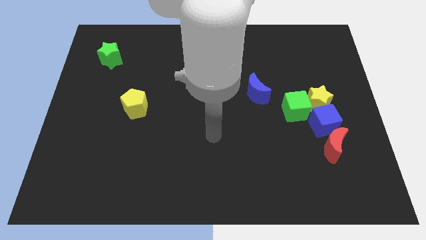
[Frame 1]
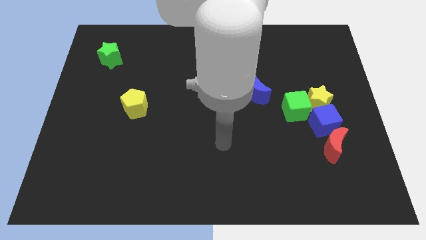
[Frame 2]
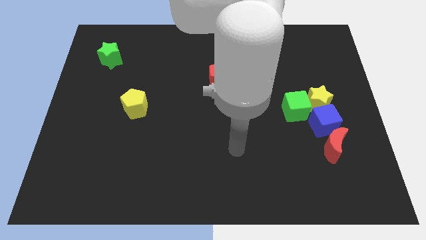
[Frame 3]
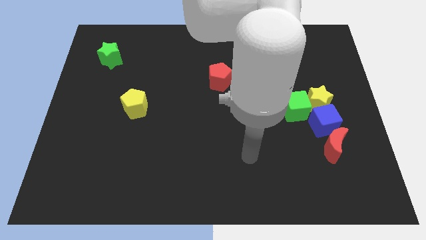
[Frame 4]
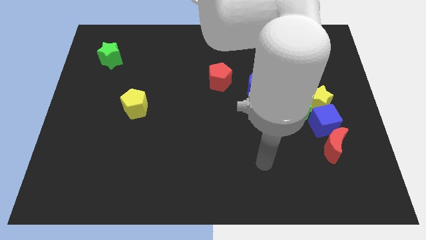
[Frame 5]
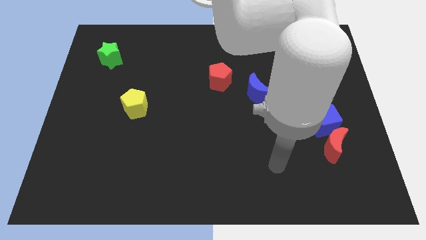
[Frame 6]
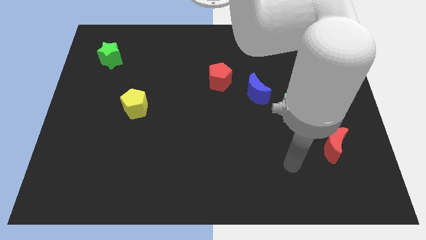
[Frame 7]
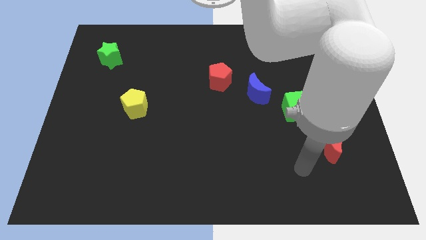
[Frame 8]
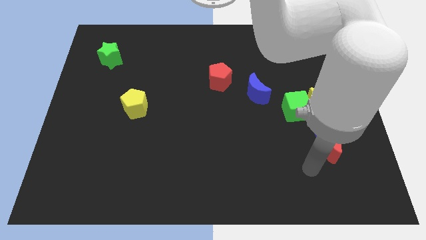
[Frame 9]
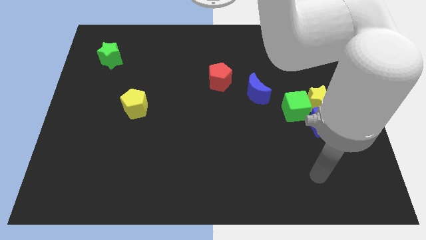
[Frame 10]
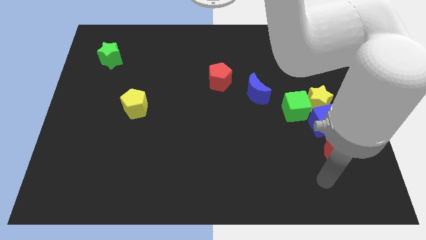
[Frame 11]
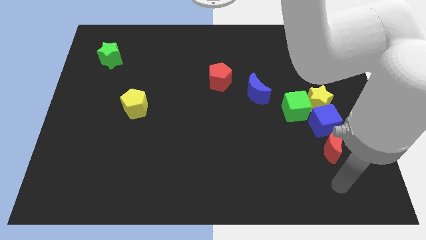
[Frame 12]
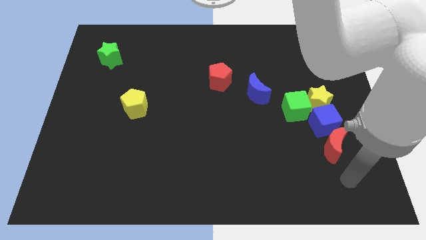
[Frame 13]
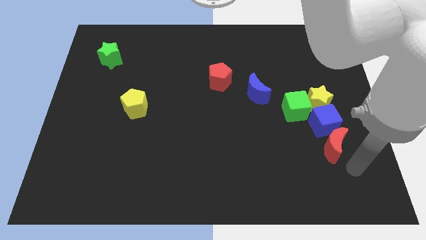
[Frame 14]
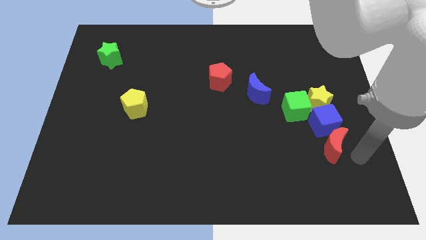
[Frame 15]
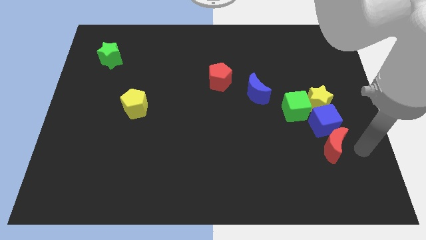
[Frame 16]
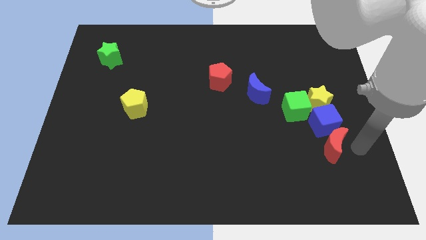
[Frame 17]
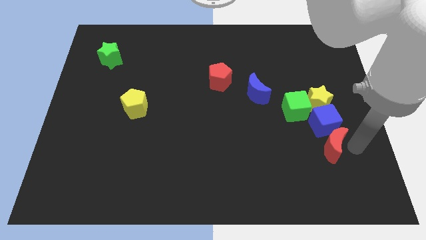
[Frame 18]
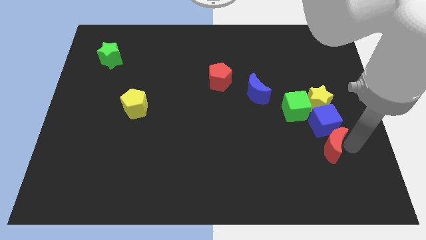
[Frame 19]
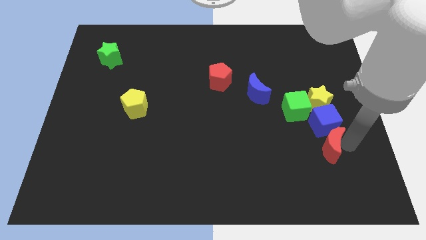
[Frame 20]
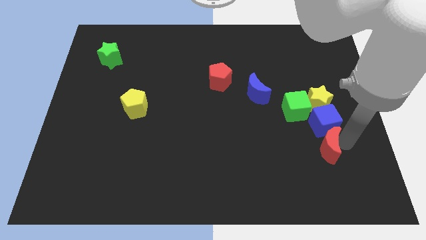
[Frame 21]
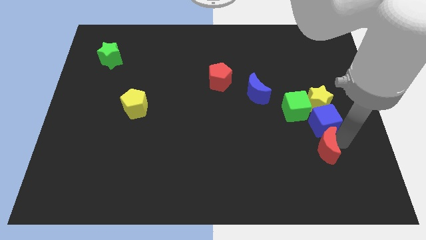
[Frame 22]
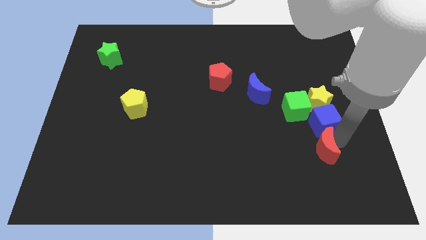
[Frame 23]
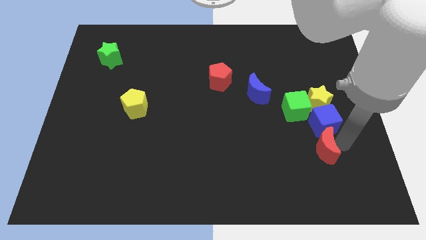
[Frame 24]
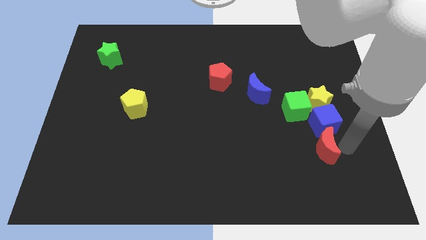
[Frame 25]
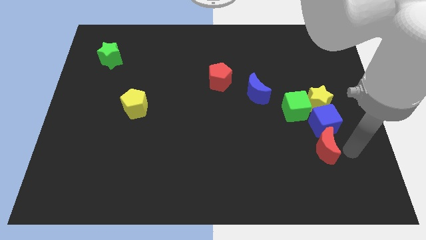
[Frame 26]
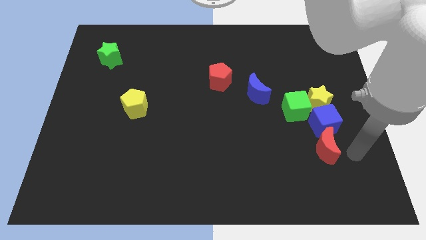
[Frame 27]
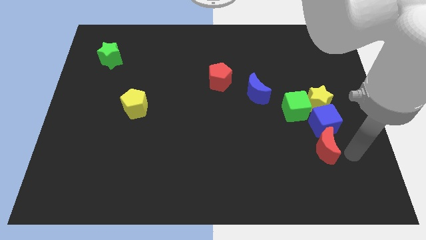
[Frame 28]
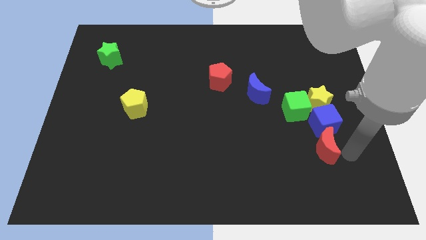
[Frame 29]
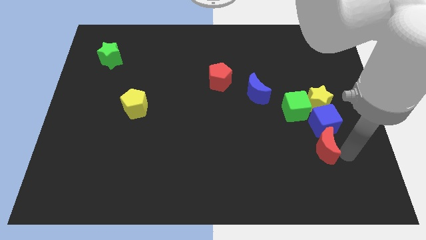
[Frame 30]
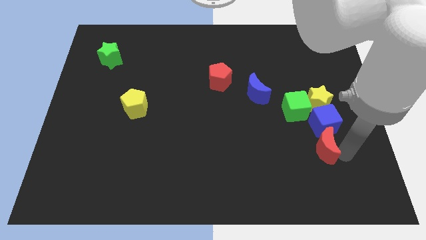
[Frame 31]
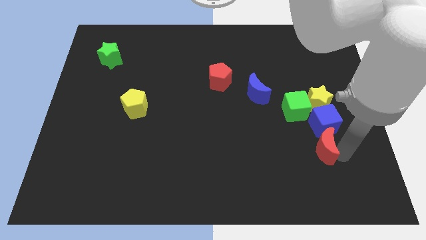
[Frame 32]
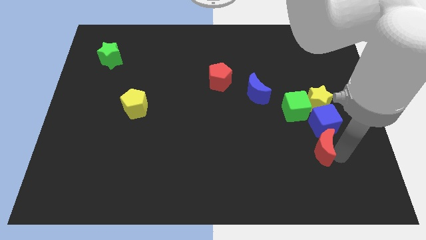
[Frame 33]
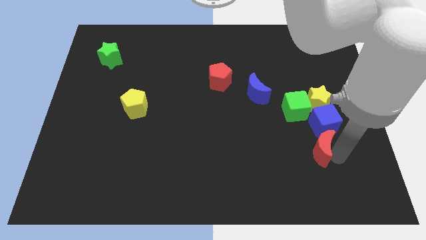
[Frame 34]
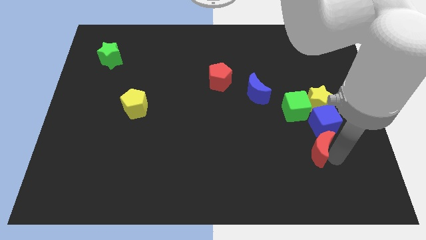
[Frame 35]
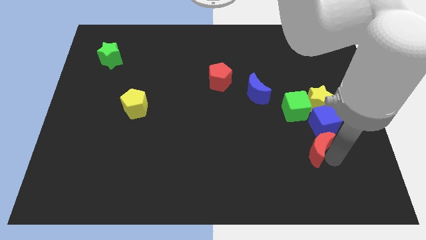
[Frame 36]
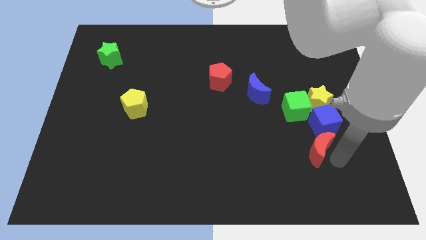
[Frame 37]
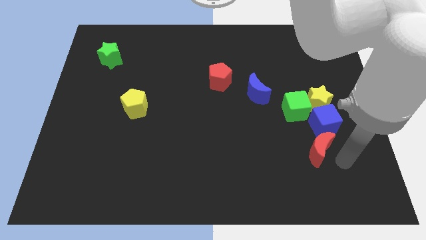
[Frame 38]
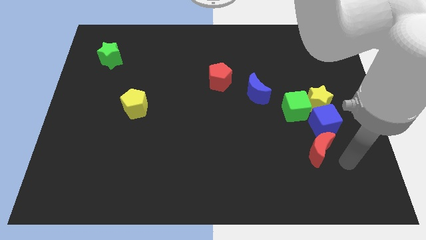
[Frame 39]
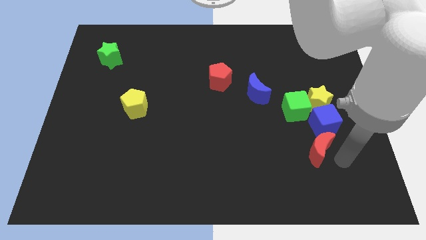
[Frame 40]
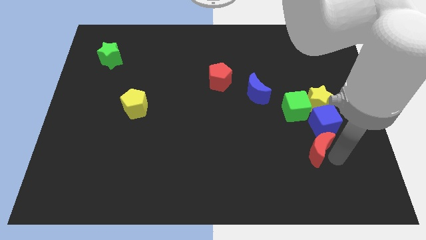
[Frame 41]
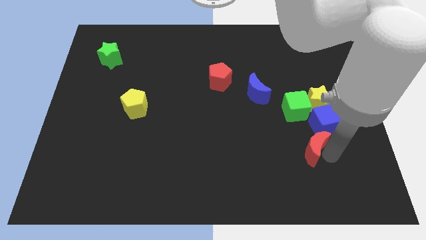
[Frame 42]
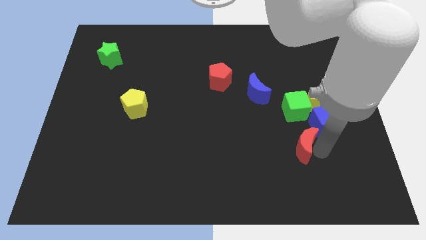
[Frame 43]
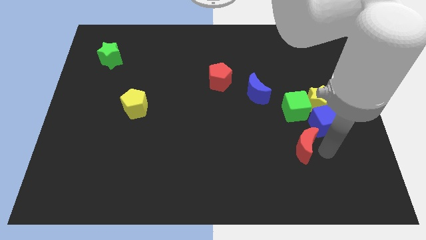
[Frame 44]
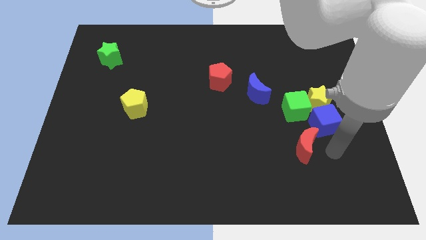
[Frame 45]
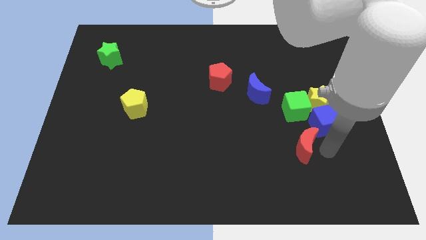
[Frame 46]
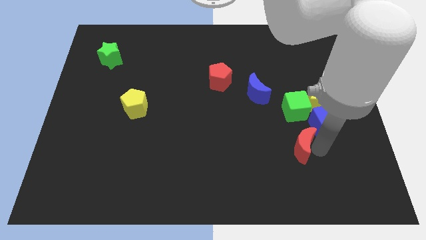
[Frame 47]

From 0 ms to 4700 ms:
push the red moon to the left a little bit

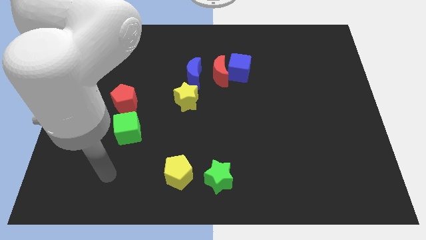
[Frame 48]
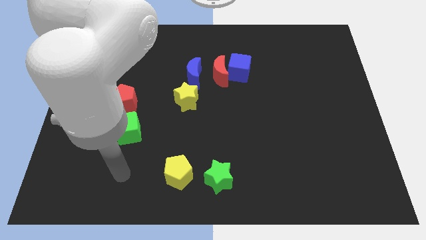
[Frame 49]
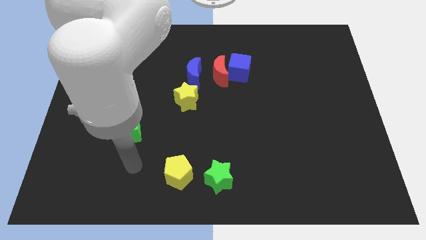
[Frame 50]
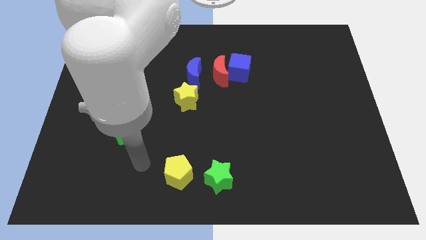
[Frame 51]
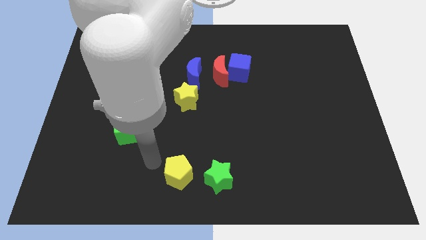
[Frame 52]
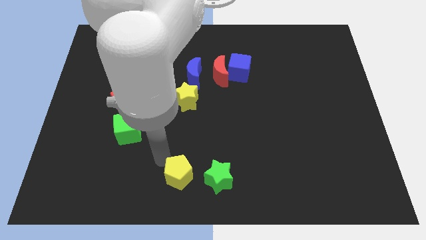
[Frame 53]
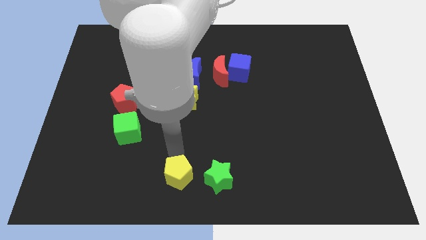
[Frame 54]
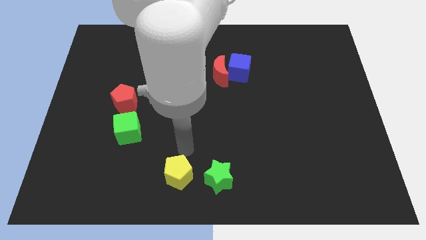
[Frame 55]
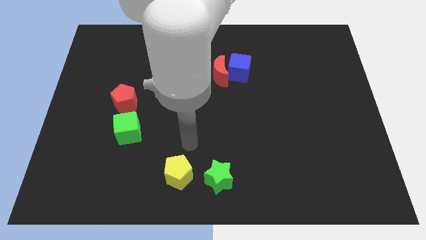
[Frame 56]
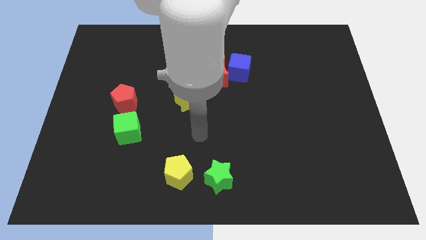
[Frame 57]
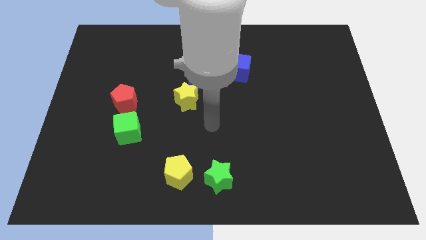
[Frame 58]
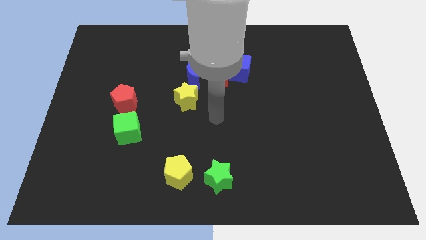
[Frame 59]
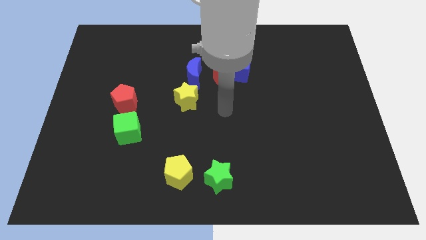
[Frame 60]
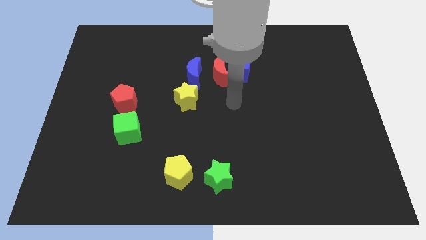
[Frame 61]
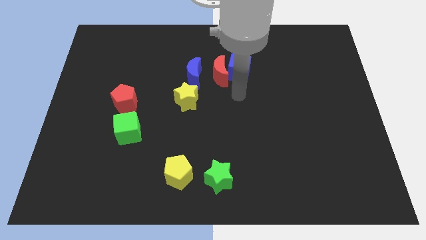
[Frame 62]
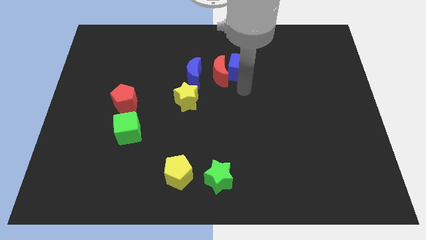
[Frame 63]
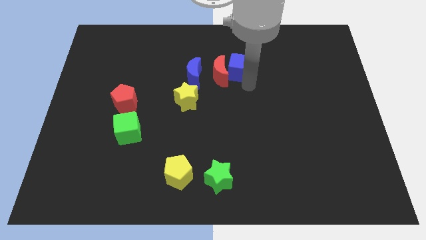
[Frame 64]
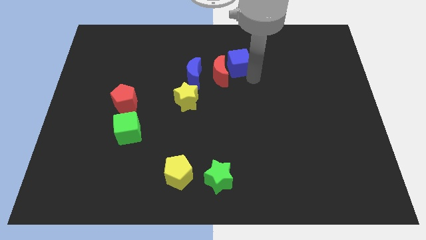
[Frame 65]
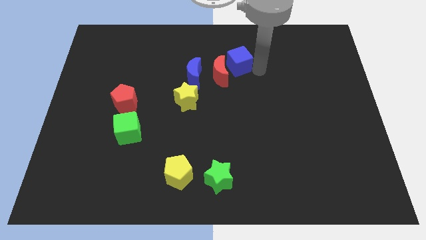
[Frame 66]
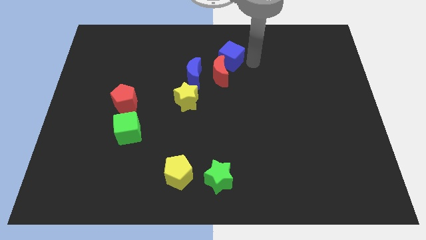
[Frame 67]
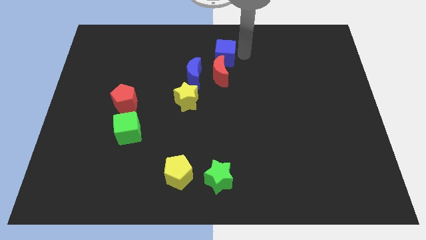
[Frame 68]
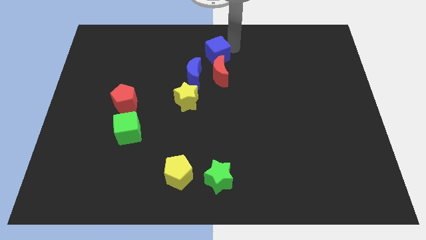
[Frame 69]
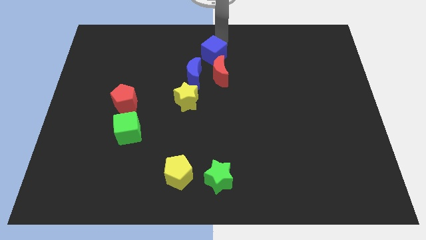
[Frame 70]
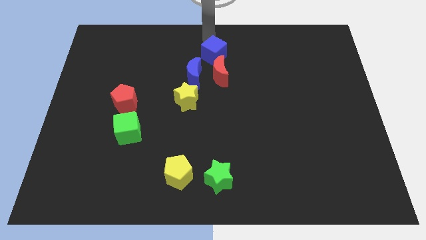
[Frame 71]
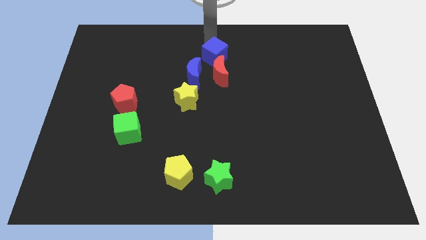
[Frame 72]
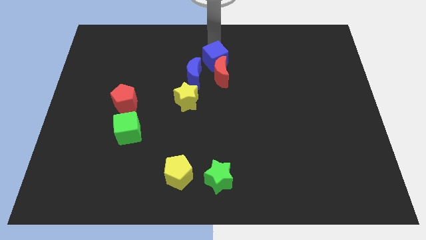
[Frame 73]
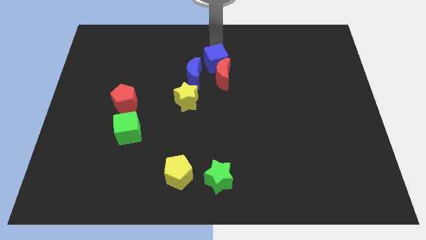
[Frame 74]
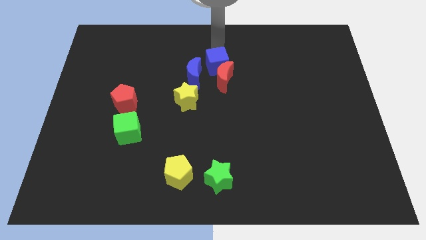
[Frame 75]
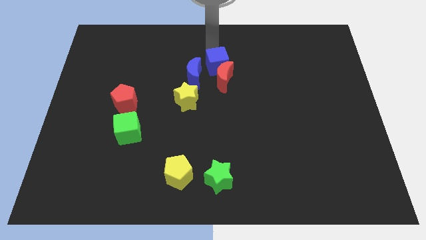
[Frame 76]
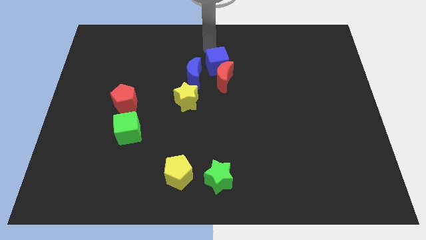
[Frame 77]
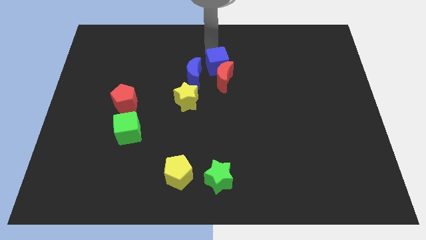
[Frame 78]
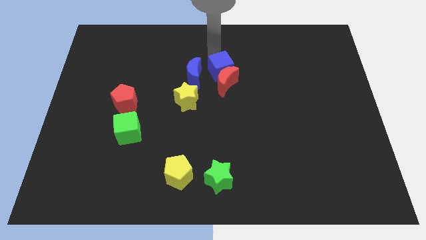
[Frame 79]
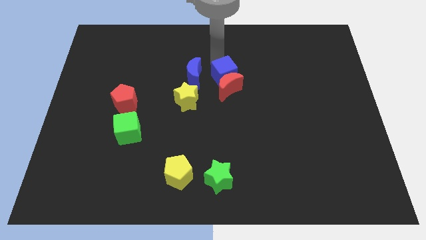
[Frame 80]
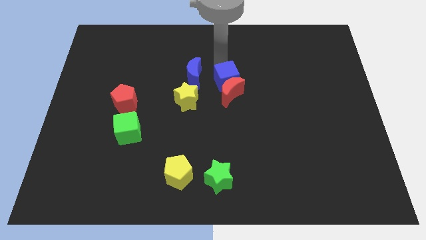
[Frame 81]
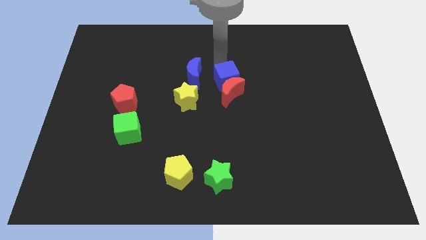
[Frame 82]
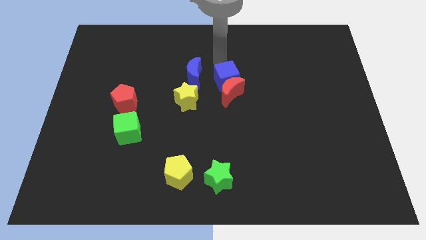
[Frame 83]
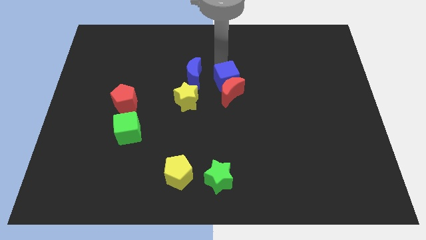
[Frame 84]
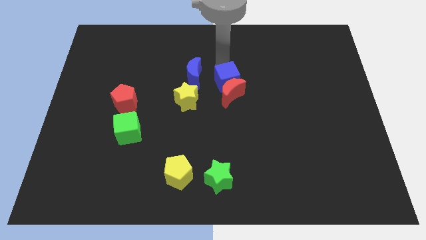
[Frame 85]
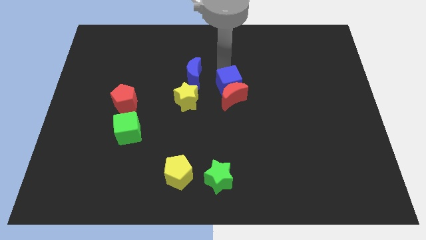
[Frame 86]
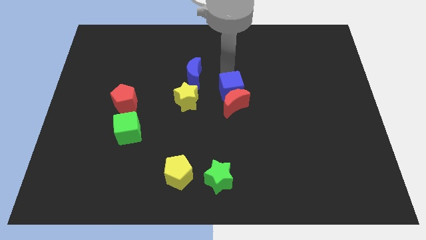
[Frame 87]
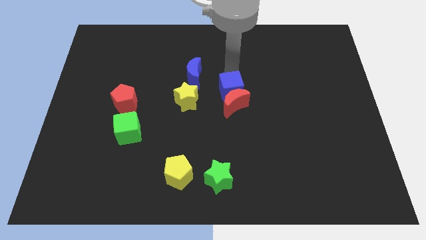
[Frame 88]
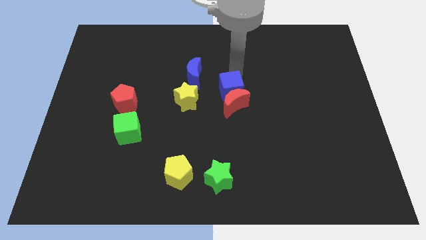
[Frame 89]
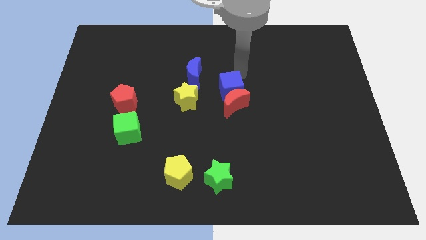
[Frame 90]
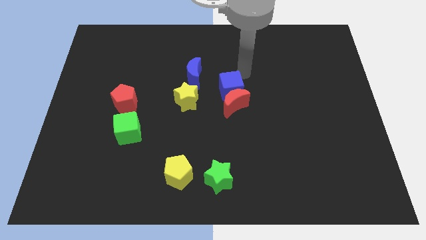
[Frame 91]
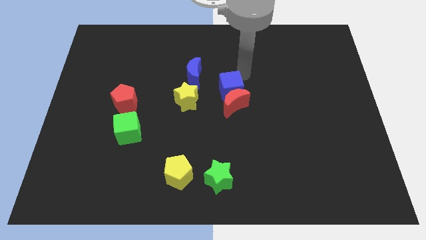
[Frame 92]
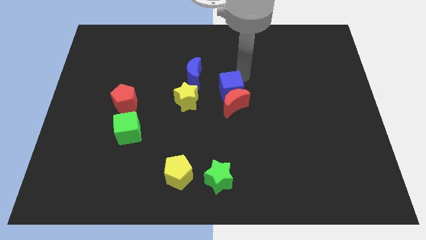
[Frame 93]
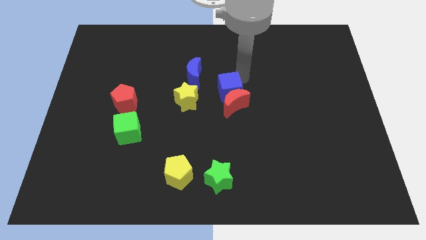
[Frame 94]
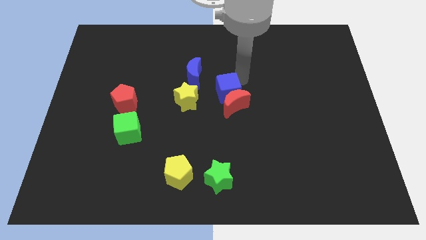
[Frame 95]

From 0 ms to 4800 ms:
slide the blue cube downwards and then to the left slightly
